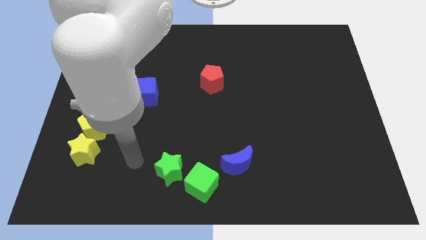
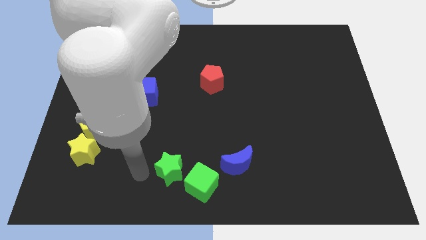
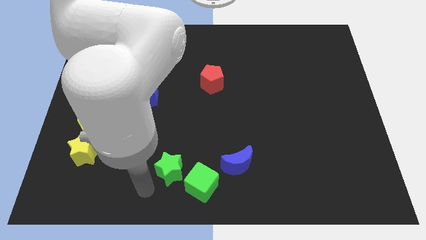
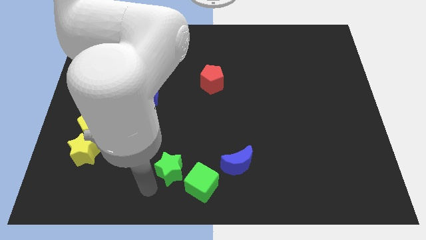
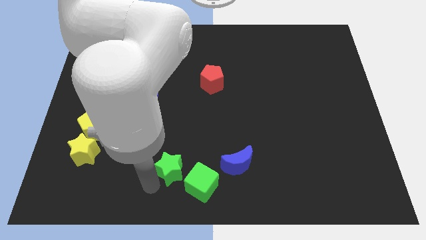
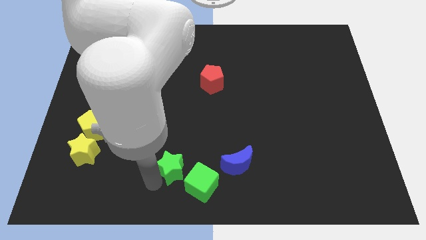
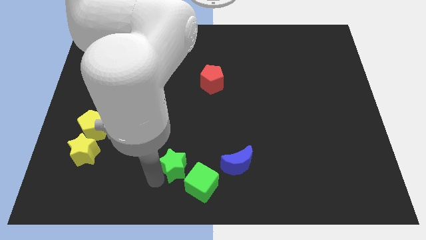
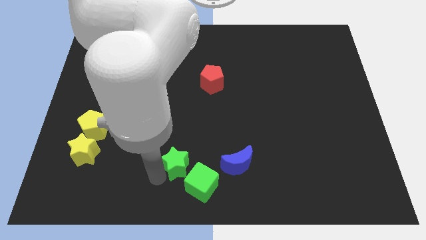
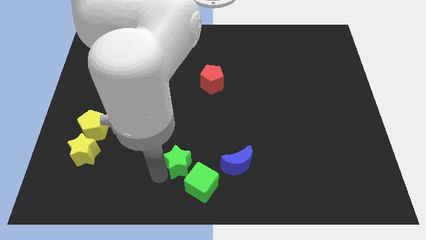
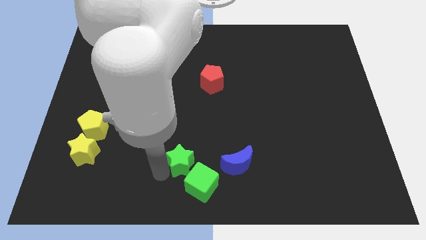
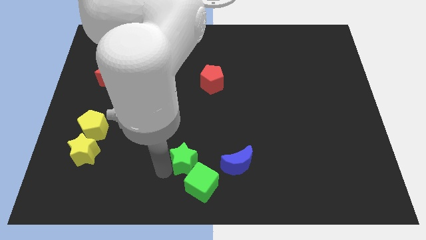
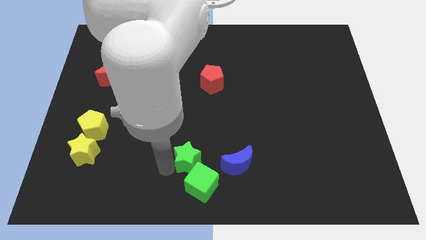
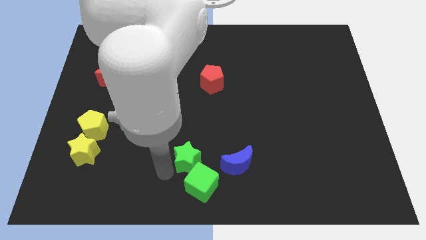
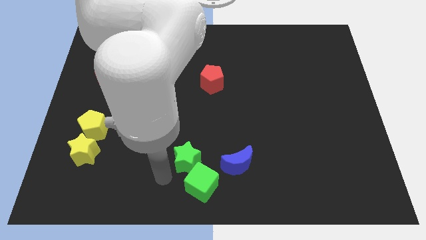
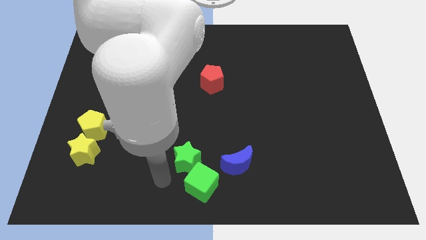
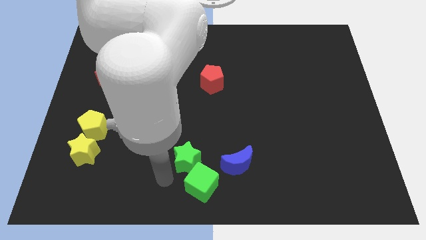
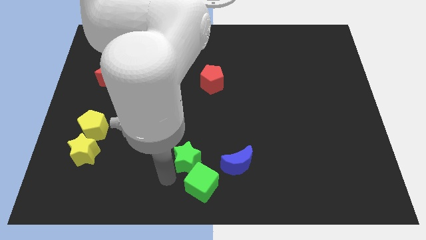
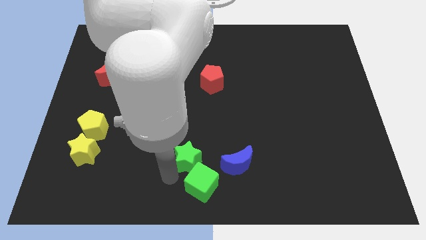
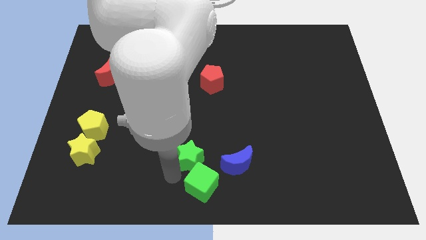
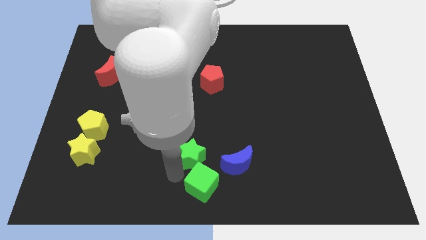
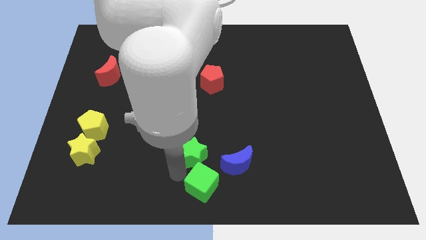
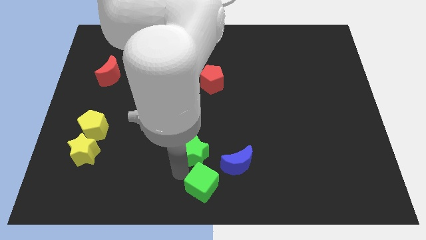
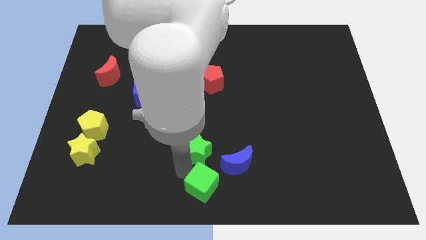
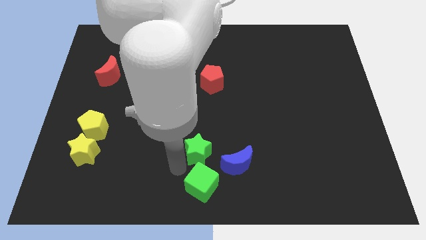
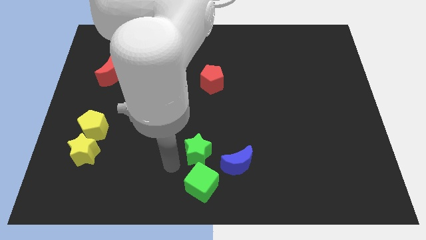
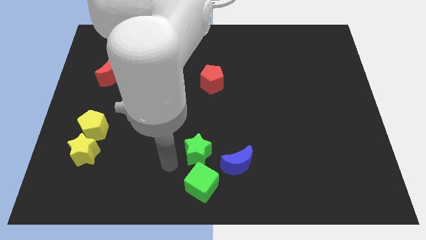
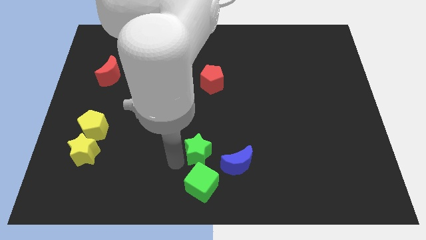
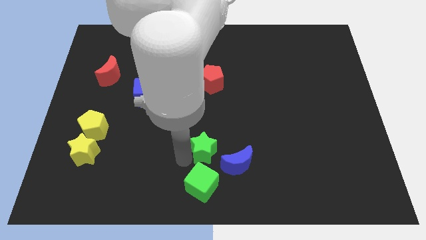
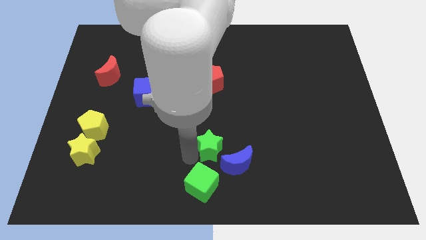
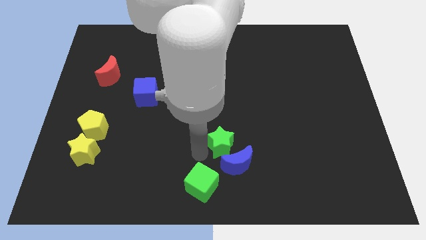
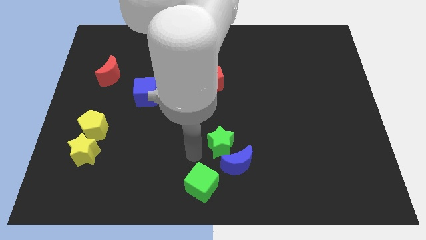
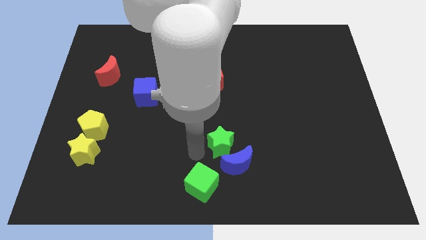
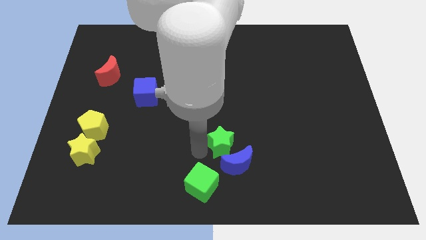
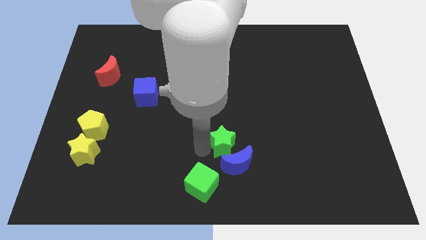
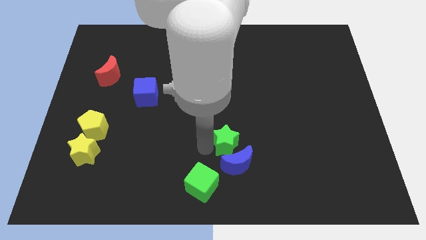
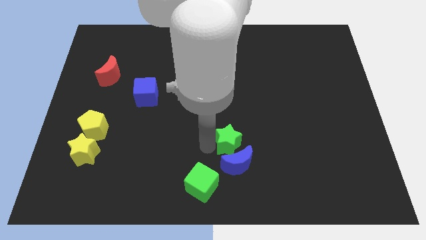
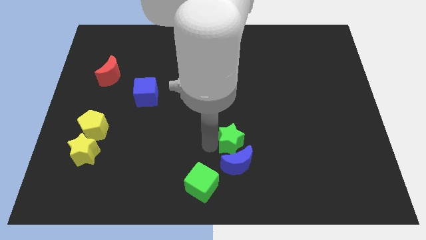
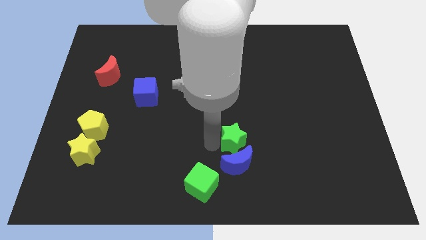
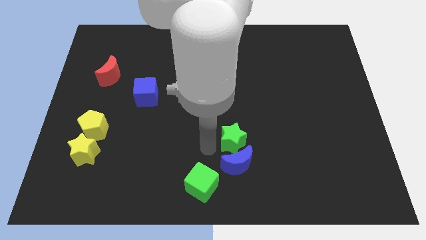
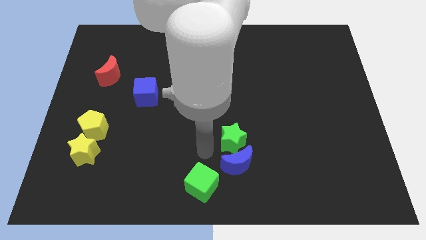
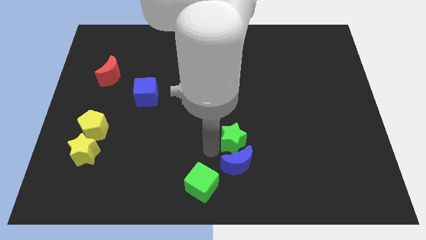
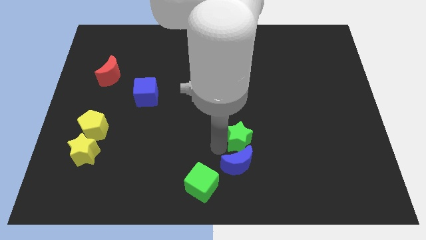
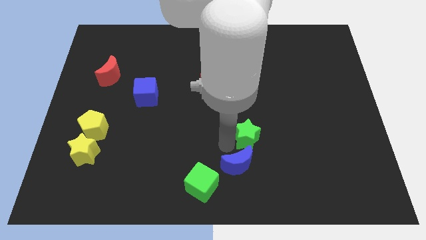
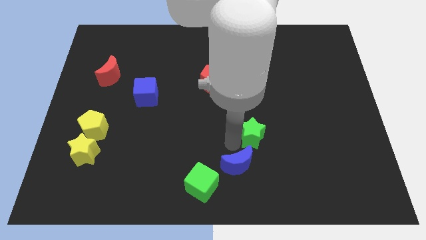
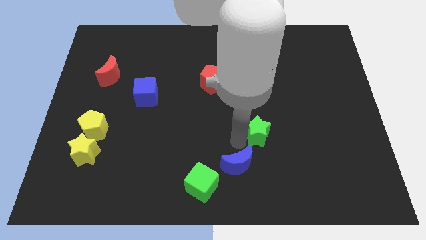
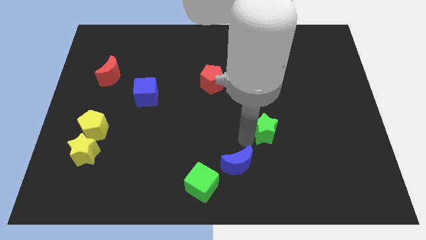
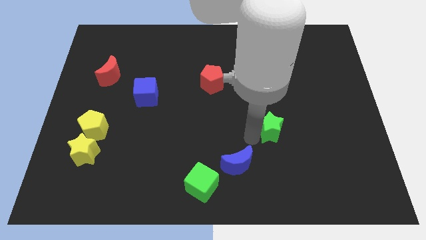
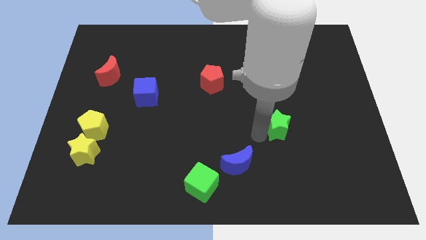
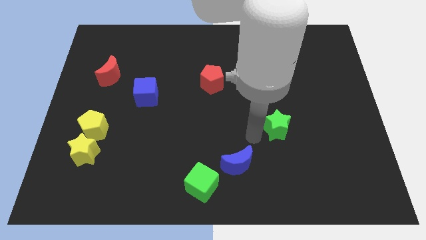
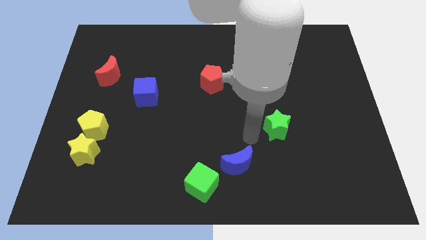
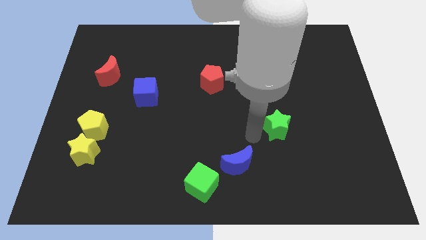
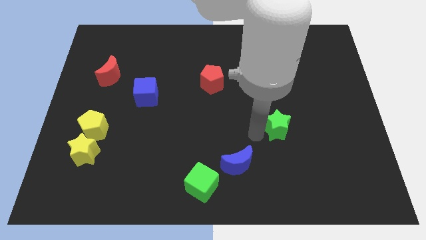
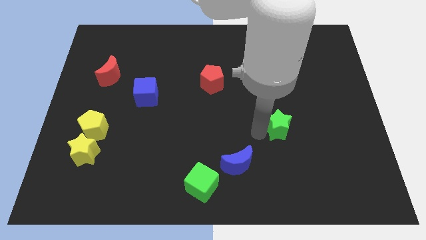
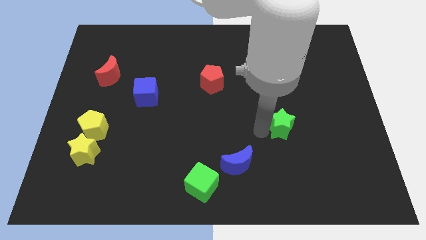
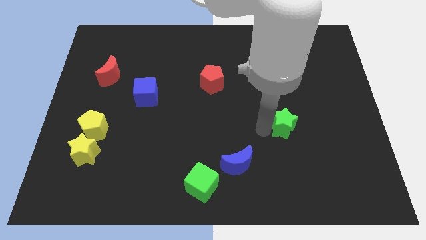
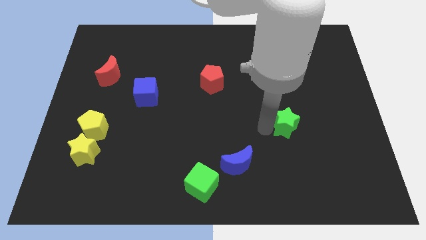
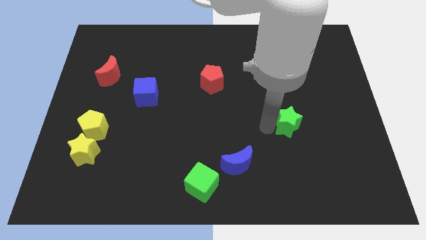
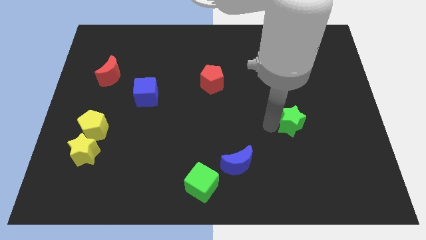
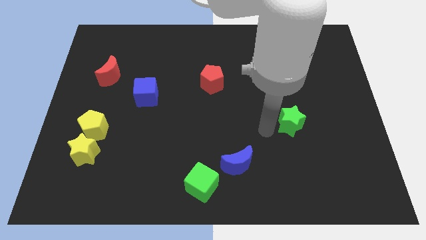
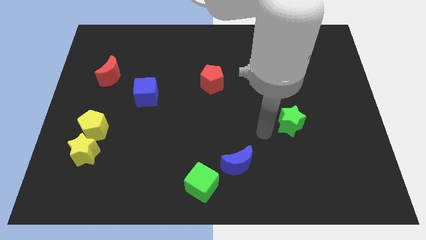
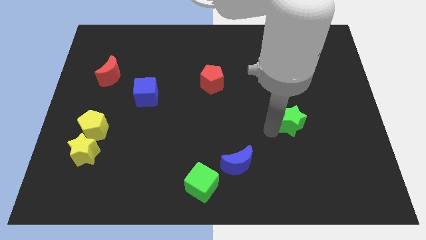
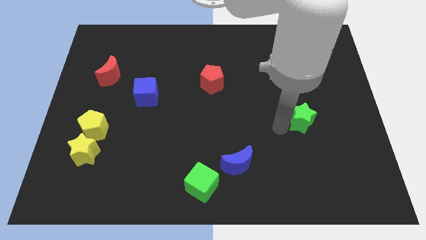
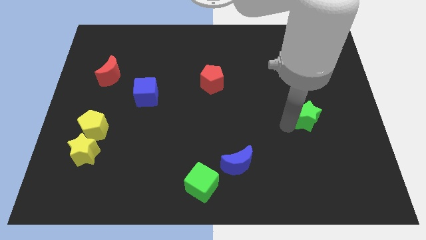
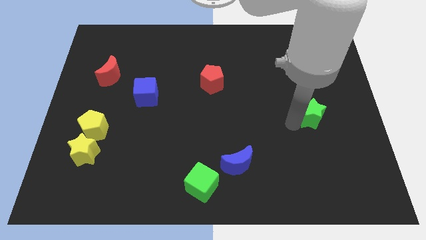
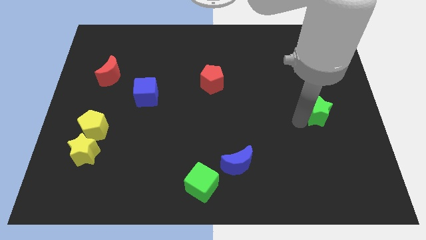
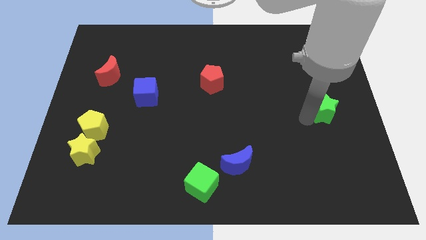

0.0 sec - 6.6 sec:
slide the green star to the right side of the board
